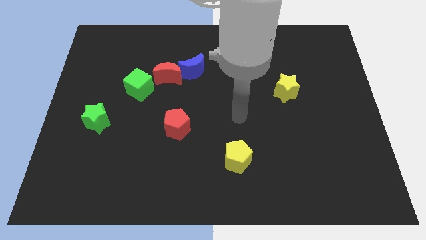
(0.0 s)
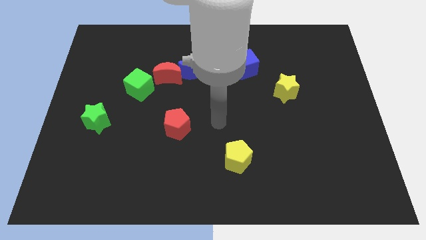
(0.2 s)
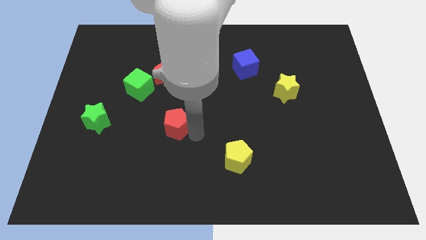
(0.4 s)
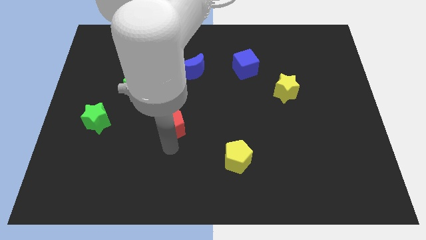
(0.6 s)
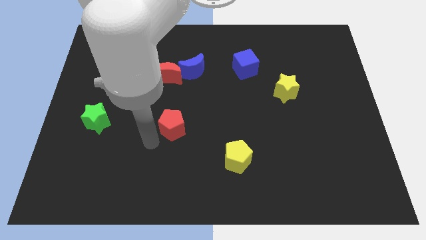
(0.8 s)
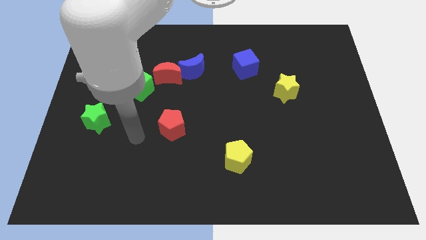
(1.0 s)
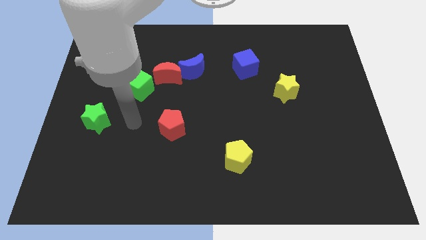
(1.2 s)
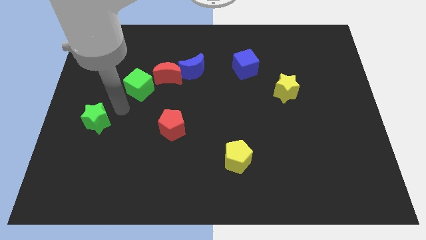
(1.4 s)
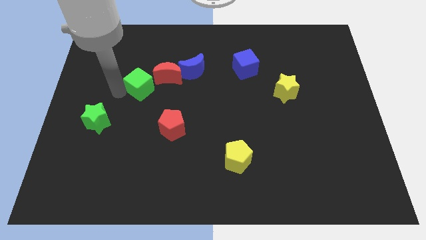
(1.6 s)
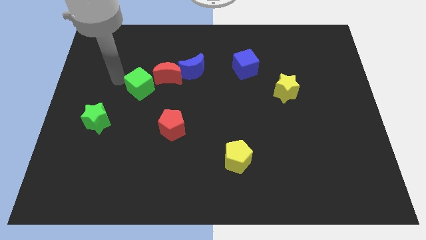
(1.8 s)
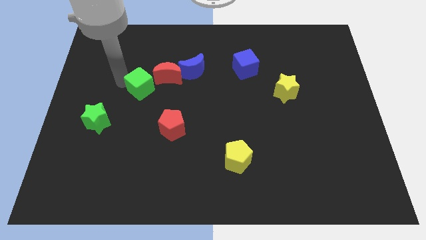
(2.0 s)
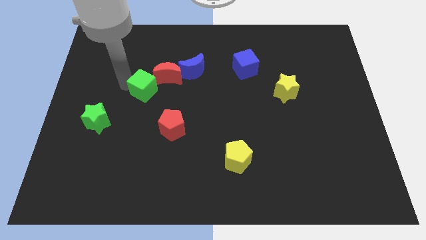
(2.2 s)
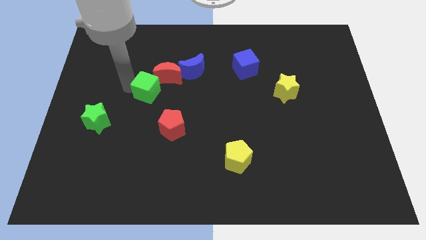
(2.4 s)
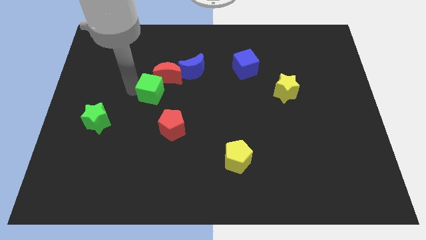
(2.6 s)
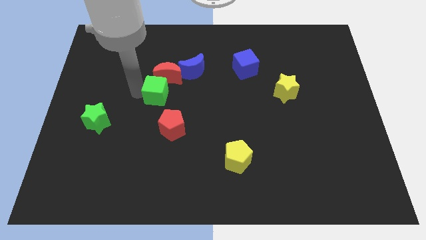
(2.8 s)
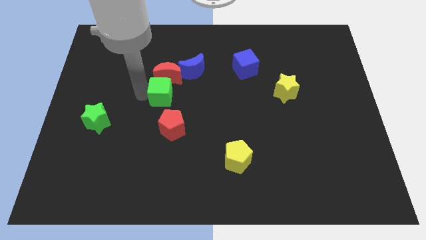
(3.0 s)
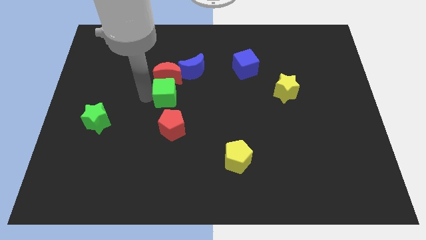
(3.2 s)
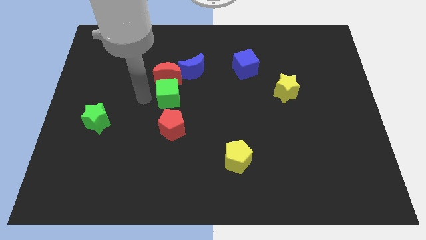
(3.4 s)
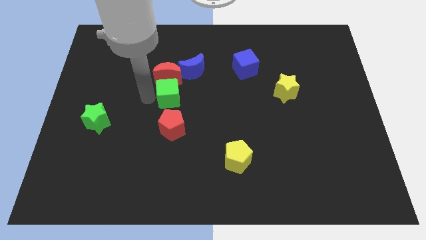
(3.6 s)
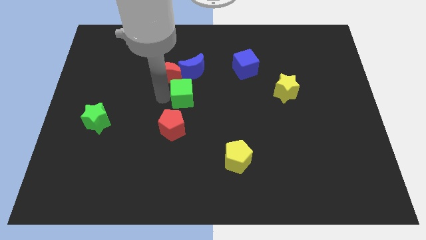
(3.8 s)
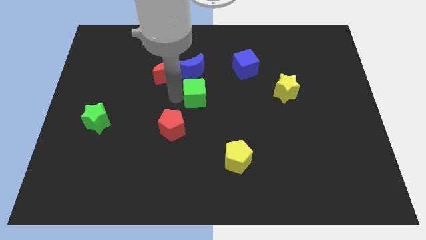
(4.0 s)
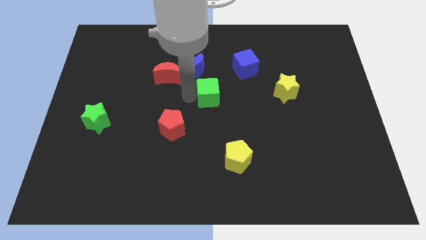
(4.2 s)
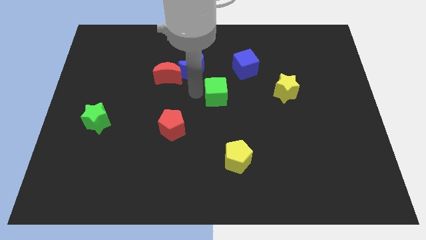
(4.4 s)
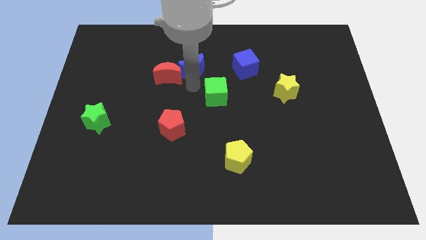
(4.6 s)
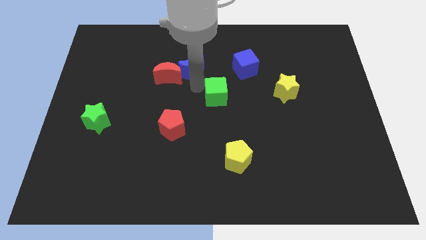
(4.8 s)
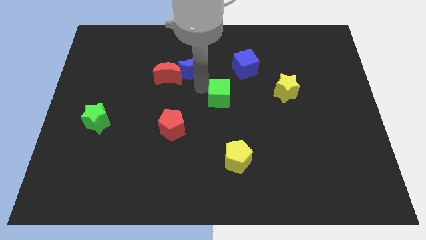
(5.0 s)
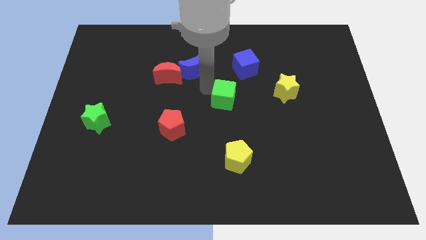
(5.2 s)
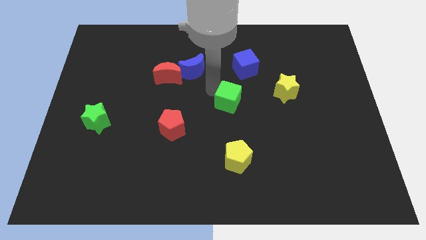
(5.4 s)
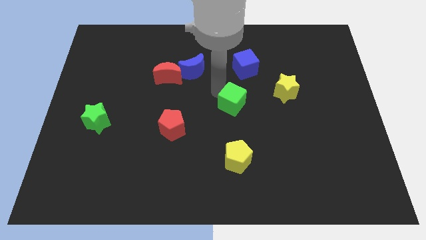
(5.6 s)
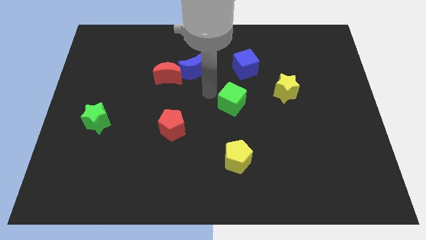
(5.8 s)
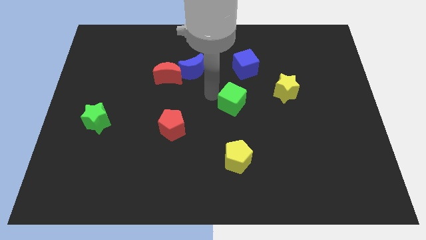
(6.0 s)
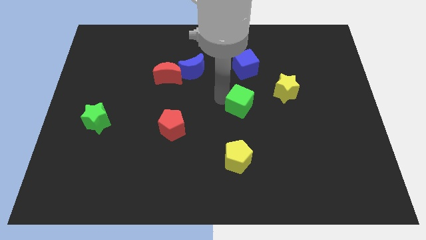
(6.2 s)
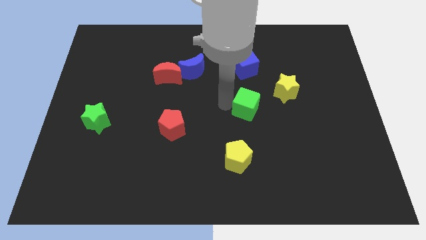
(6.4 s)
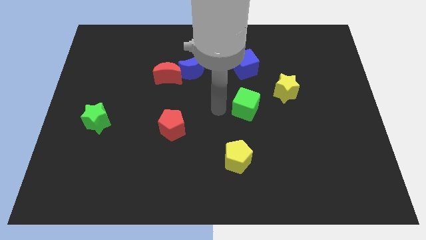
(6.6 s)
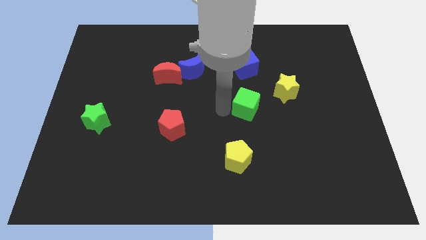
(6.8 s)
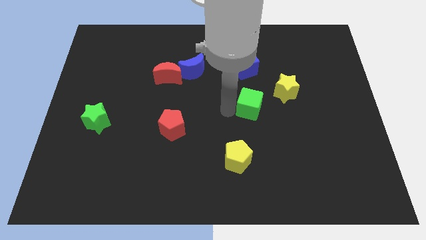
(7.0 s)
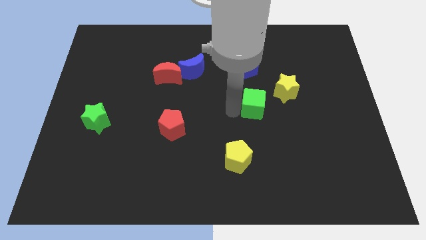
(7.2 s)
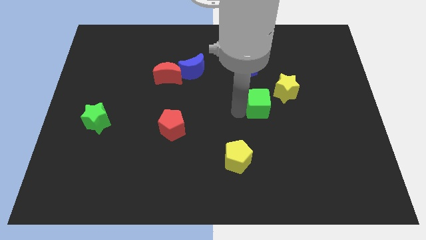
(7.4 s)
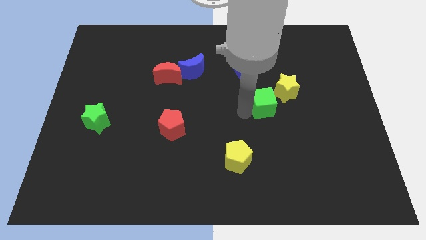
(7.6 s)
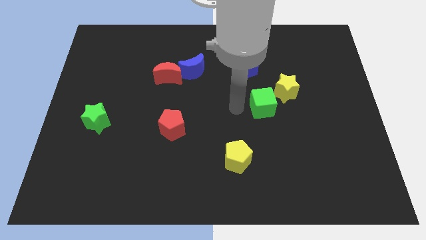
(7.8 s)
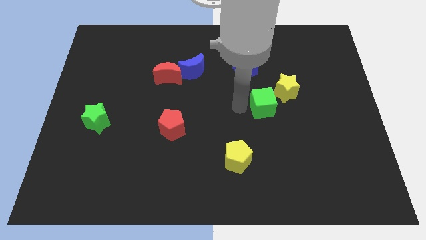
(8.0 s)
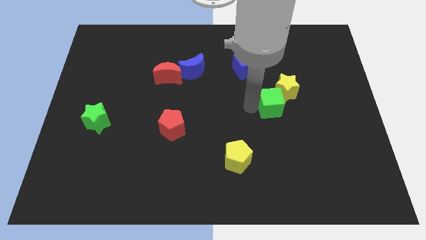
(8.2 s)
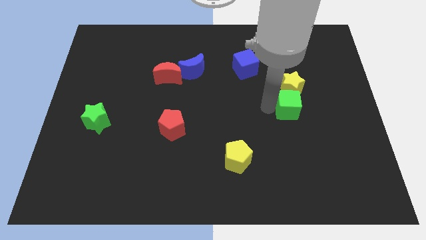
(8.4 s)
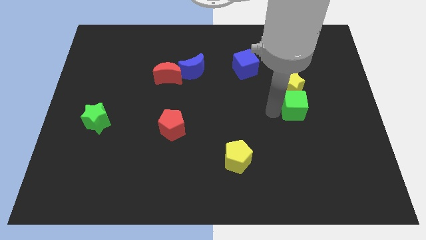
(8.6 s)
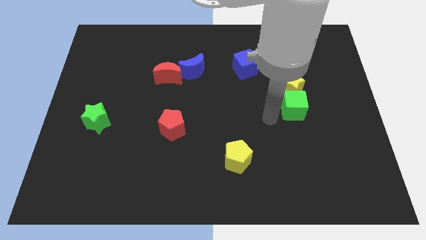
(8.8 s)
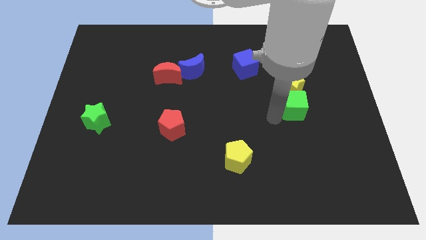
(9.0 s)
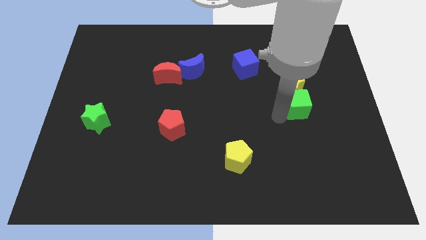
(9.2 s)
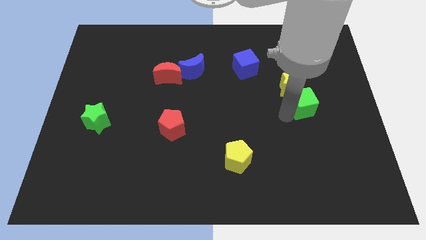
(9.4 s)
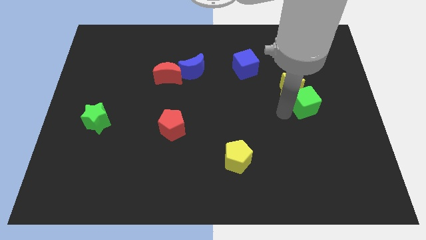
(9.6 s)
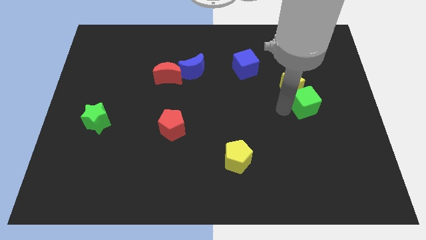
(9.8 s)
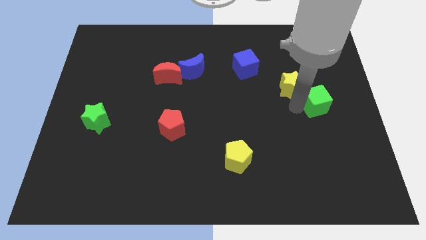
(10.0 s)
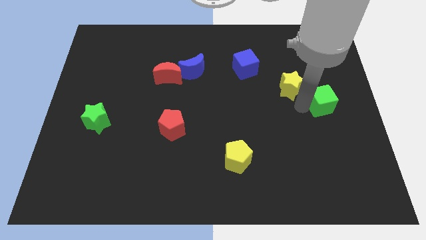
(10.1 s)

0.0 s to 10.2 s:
slide the green cube to the center right
